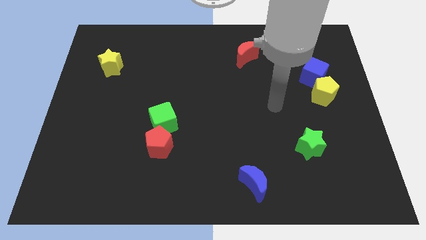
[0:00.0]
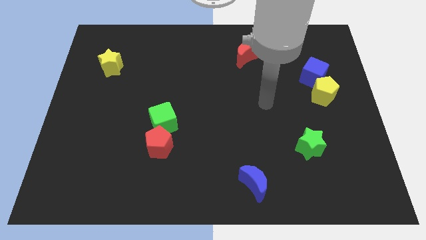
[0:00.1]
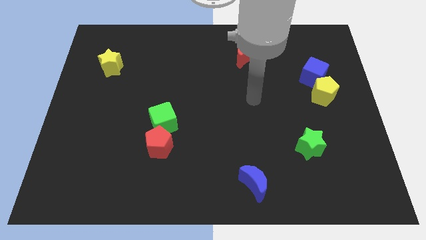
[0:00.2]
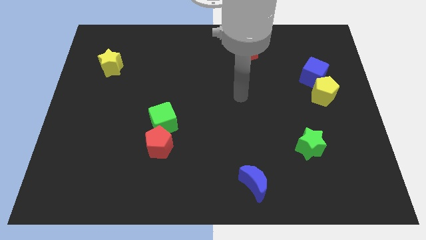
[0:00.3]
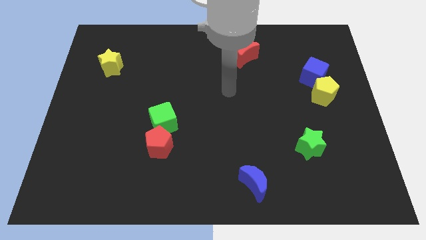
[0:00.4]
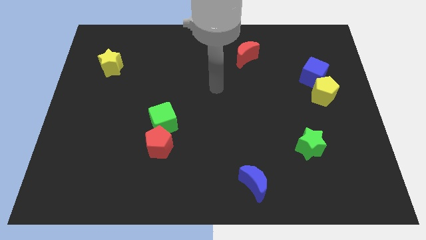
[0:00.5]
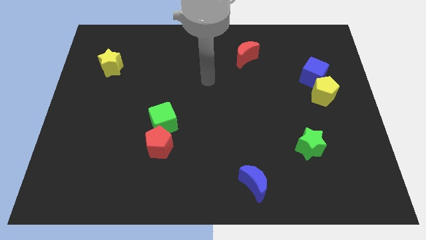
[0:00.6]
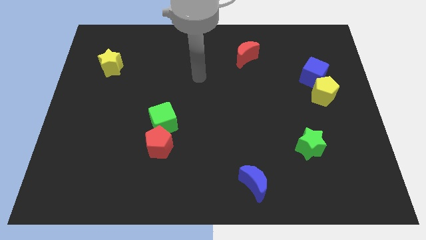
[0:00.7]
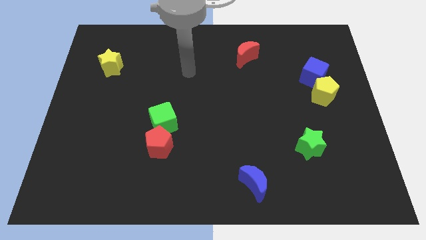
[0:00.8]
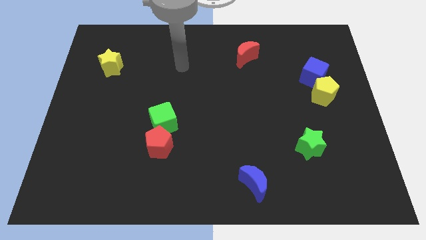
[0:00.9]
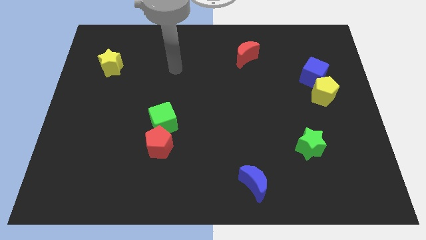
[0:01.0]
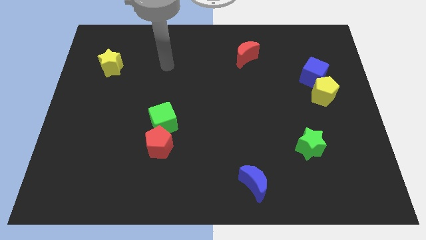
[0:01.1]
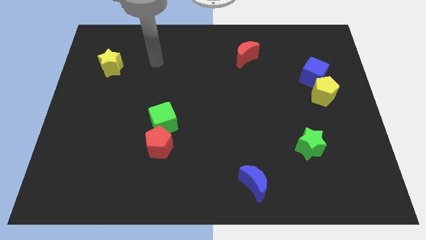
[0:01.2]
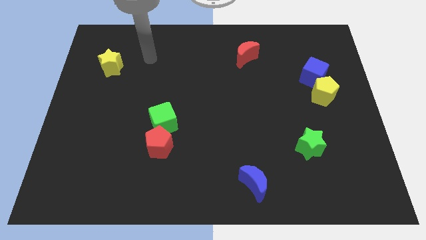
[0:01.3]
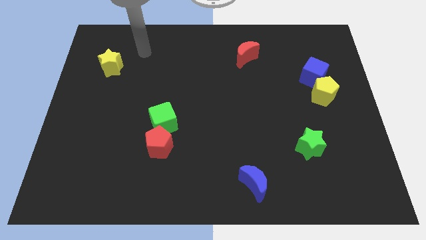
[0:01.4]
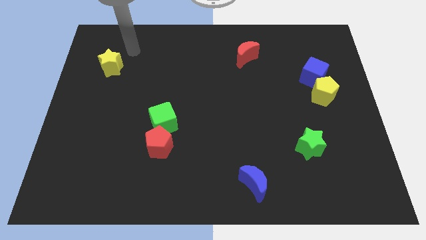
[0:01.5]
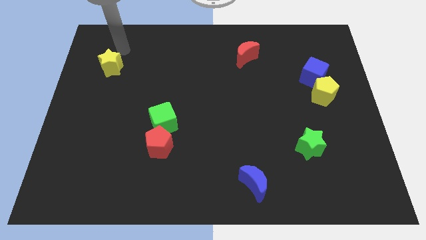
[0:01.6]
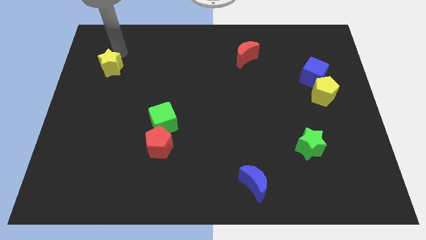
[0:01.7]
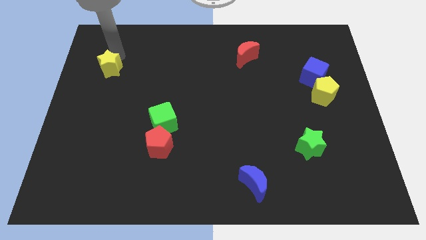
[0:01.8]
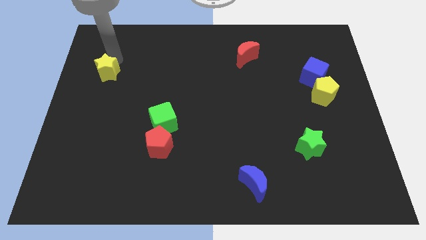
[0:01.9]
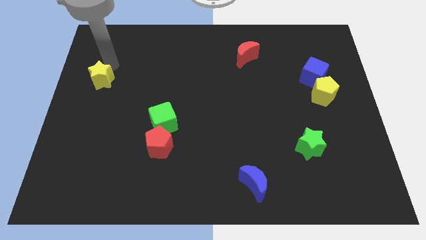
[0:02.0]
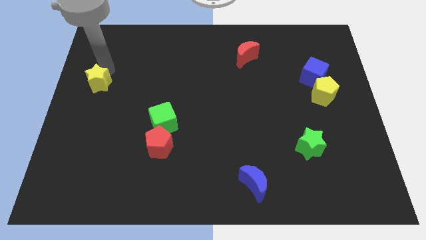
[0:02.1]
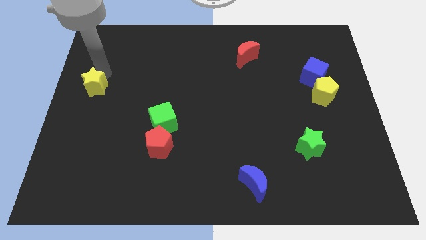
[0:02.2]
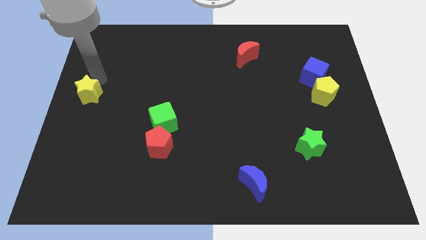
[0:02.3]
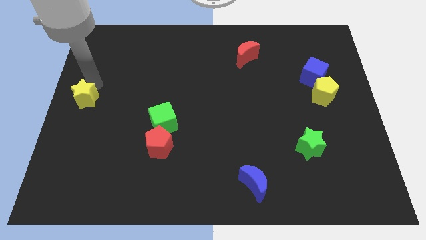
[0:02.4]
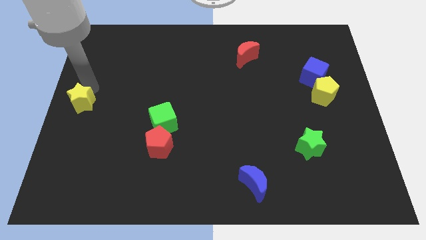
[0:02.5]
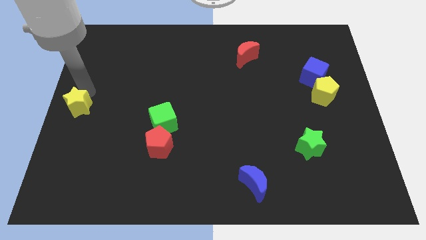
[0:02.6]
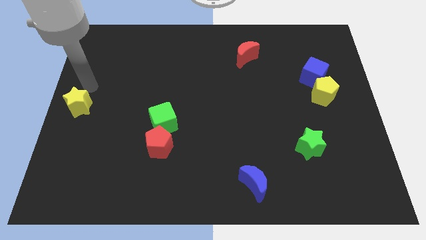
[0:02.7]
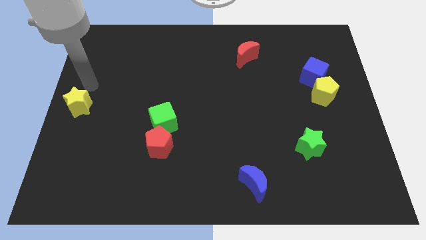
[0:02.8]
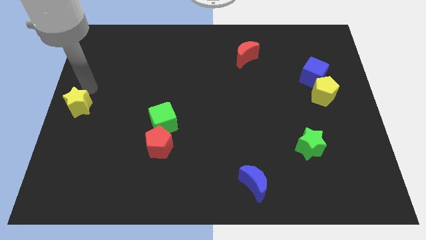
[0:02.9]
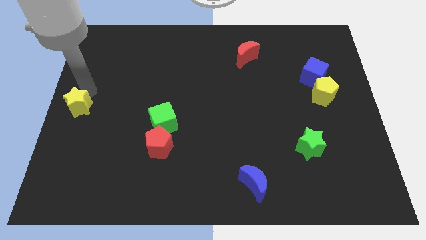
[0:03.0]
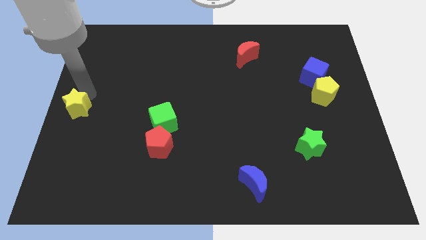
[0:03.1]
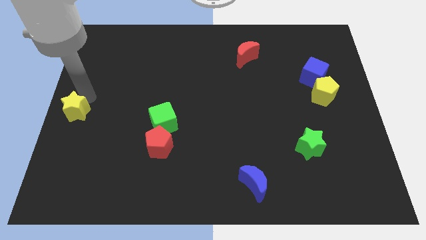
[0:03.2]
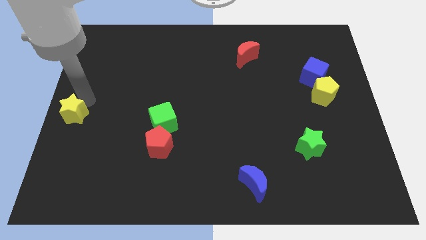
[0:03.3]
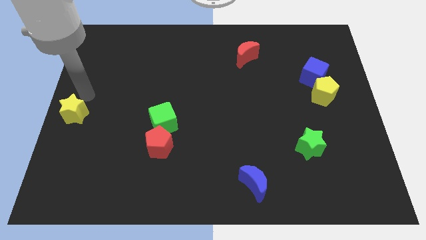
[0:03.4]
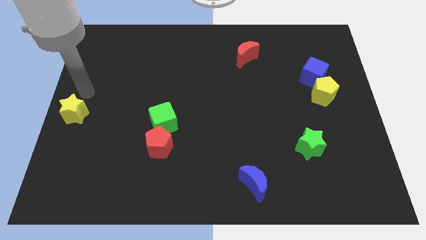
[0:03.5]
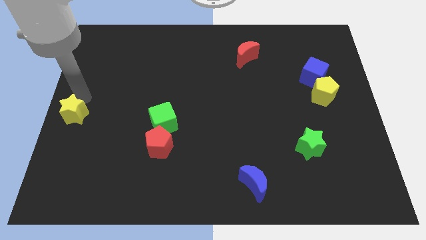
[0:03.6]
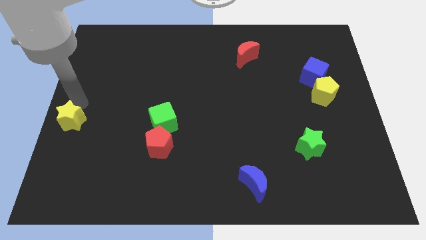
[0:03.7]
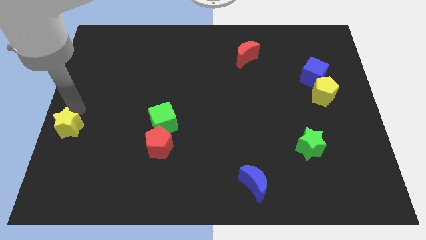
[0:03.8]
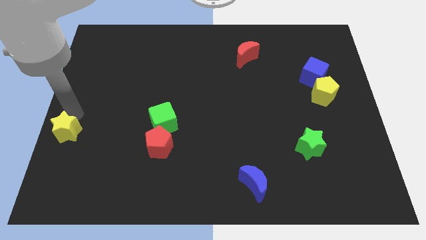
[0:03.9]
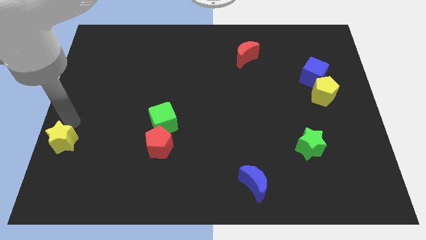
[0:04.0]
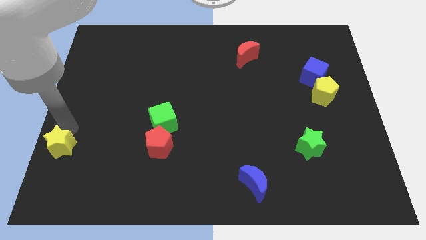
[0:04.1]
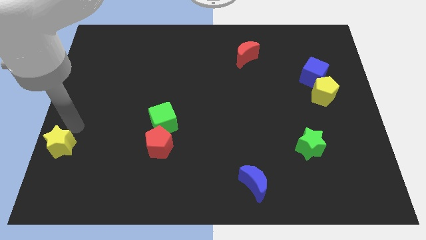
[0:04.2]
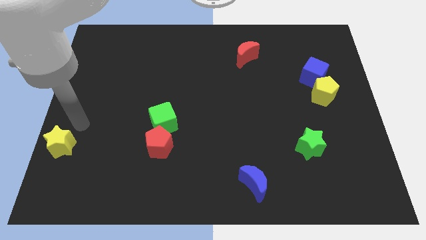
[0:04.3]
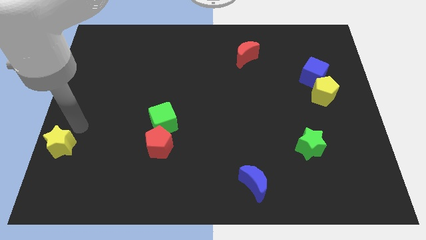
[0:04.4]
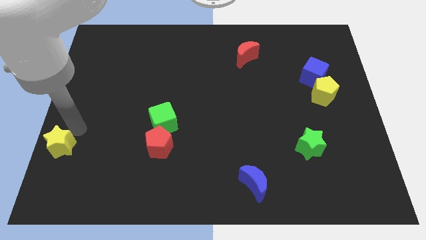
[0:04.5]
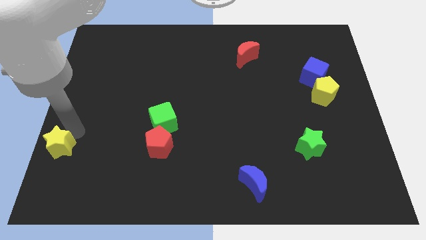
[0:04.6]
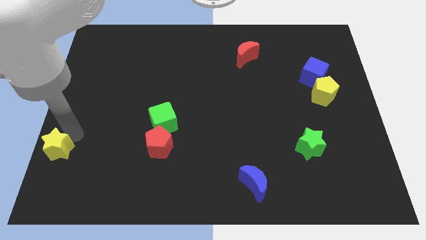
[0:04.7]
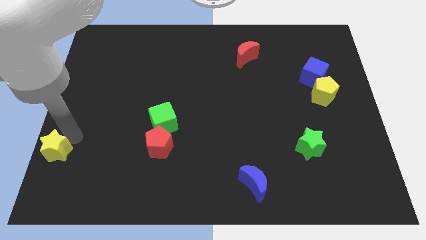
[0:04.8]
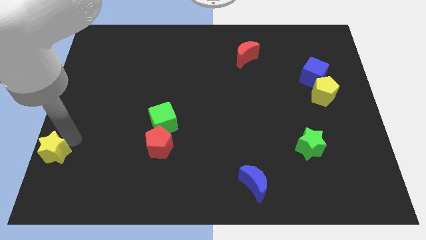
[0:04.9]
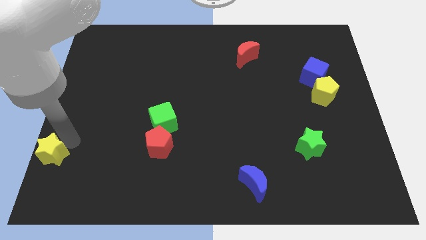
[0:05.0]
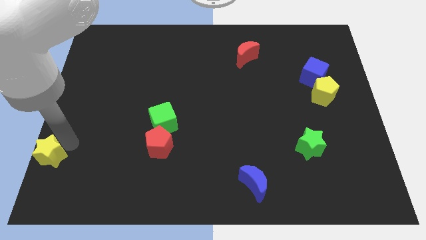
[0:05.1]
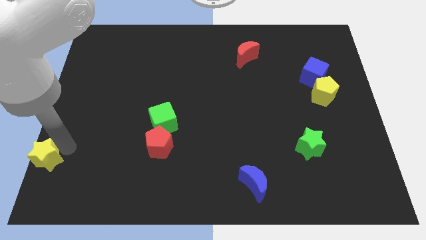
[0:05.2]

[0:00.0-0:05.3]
move the yellow star to the bottom left
